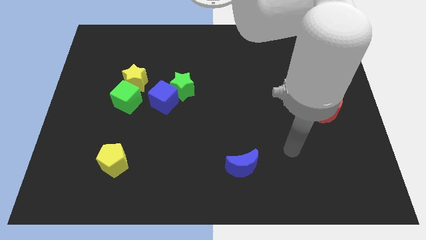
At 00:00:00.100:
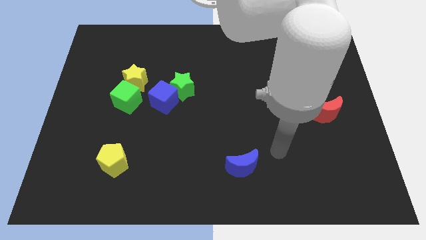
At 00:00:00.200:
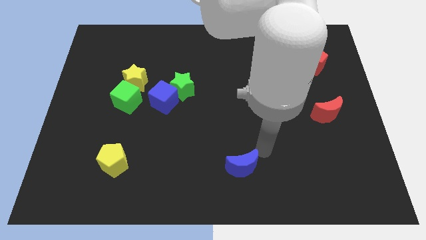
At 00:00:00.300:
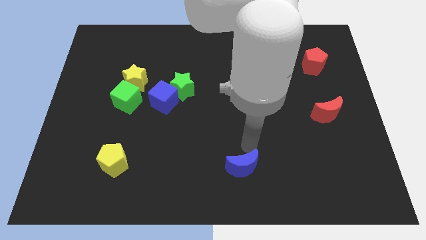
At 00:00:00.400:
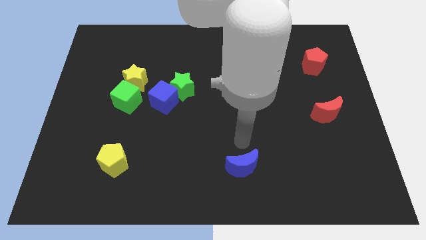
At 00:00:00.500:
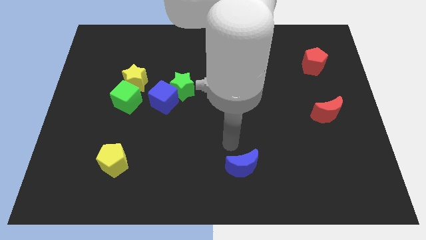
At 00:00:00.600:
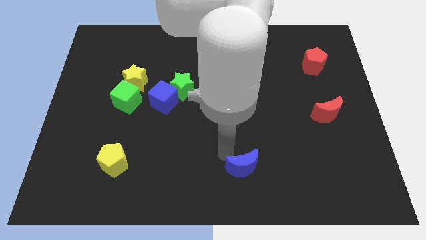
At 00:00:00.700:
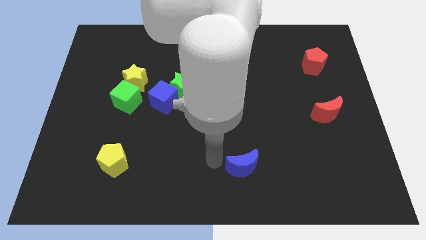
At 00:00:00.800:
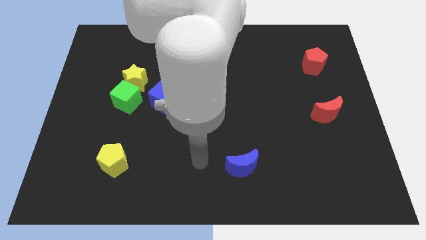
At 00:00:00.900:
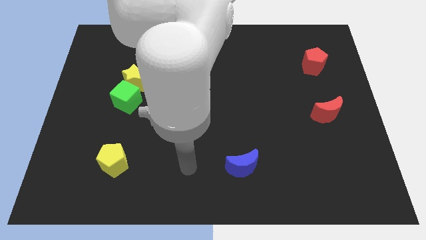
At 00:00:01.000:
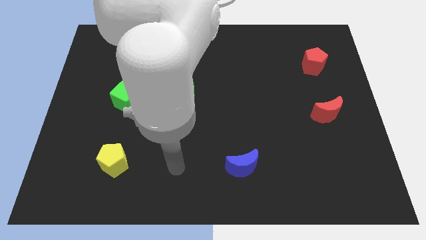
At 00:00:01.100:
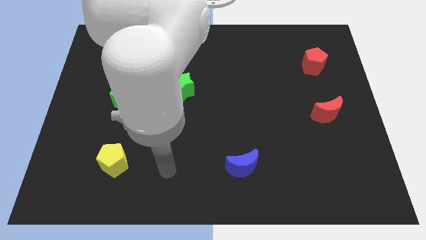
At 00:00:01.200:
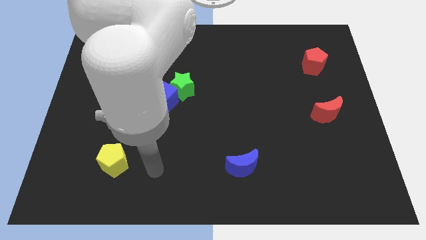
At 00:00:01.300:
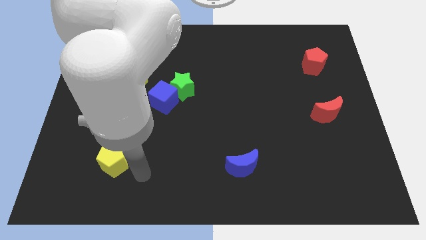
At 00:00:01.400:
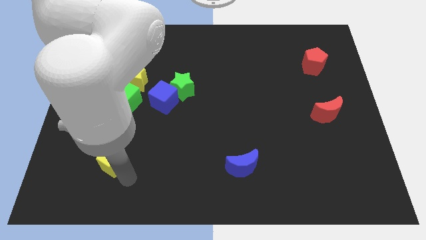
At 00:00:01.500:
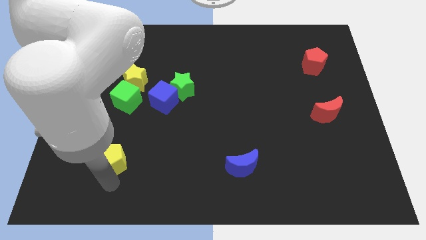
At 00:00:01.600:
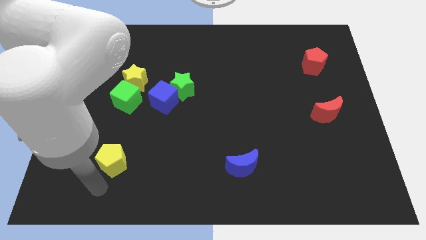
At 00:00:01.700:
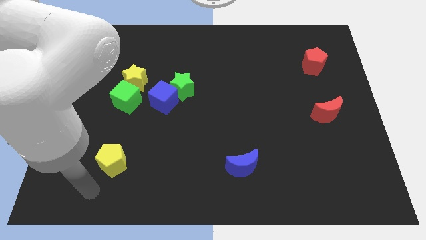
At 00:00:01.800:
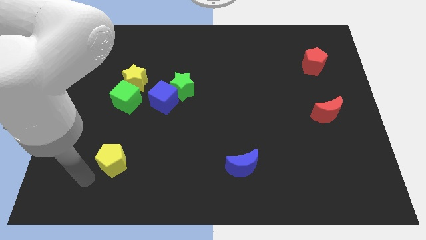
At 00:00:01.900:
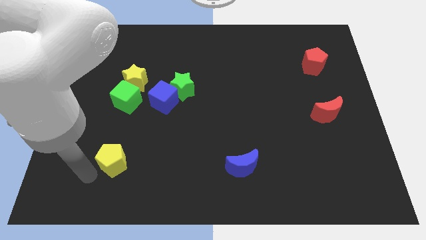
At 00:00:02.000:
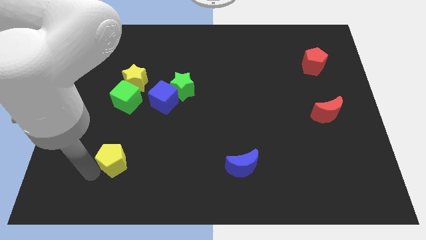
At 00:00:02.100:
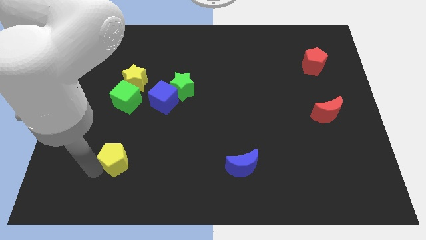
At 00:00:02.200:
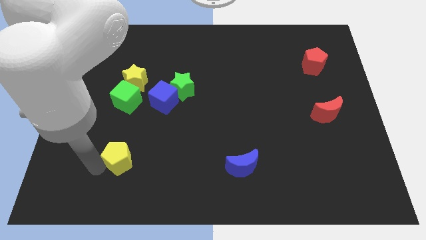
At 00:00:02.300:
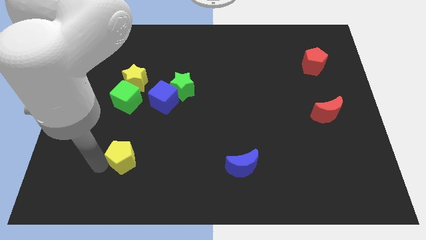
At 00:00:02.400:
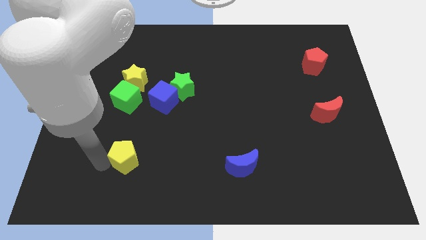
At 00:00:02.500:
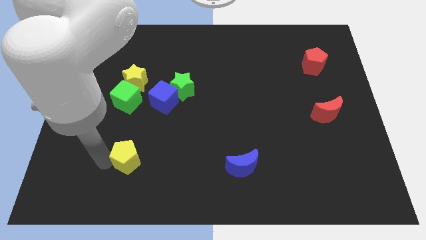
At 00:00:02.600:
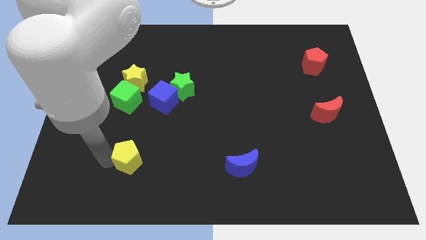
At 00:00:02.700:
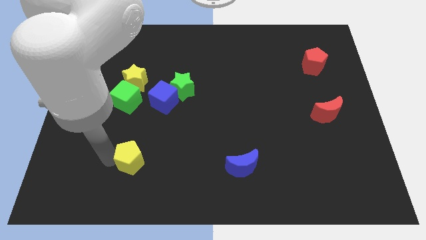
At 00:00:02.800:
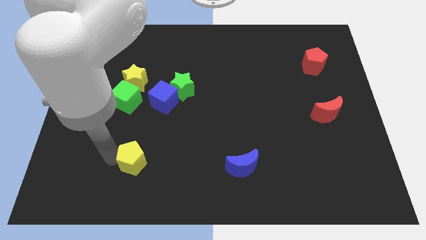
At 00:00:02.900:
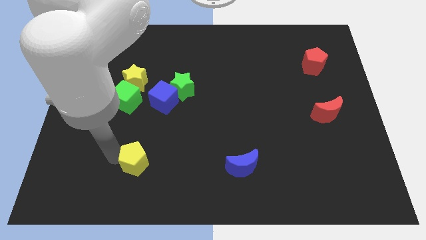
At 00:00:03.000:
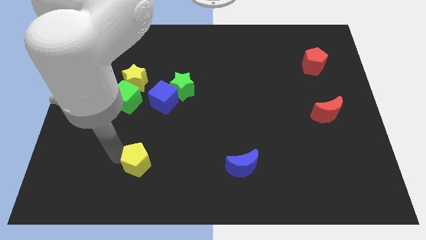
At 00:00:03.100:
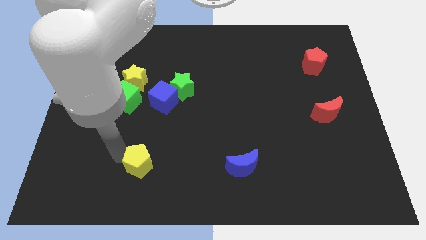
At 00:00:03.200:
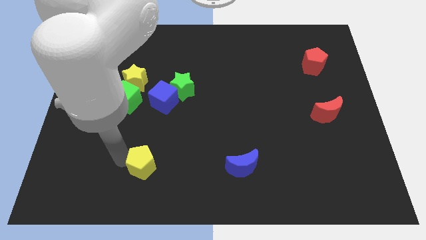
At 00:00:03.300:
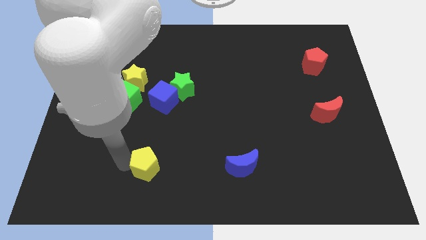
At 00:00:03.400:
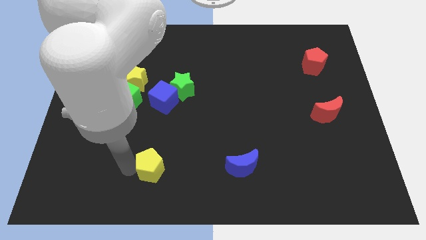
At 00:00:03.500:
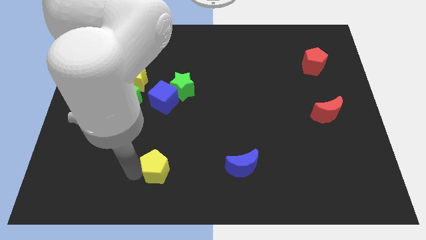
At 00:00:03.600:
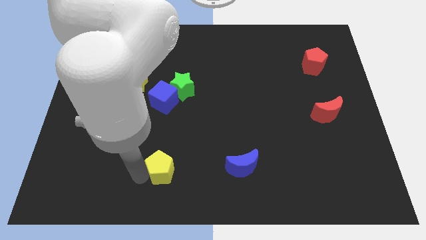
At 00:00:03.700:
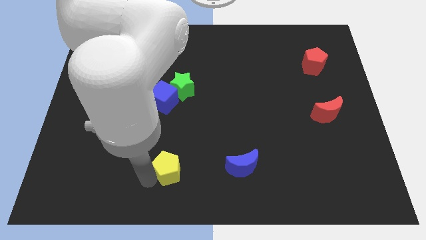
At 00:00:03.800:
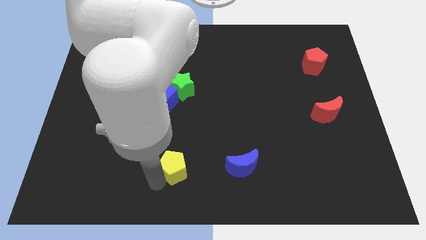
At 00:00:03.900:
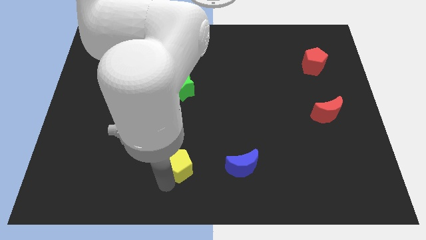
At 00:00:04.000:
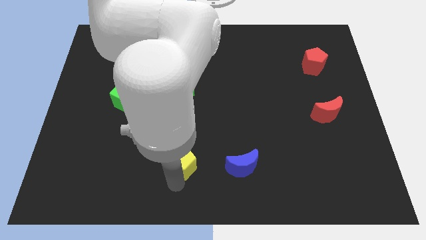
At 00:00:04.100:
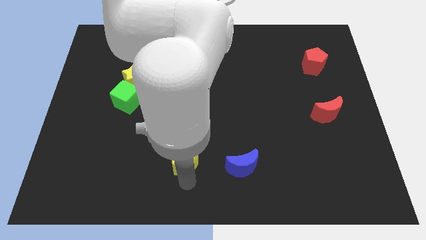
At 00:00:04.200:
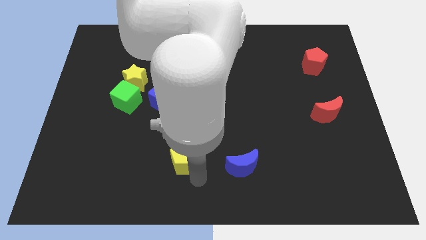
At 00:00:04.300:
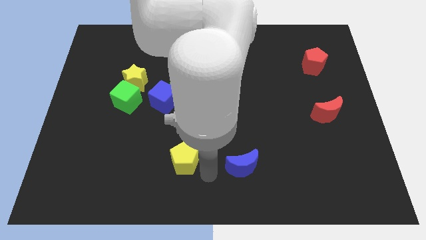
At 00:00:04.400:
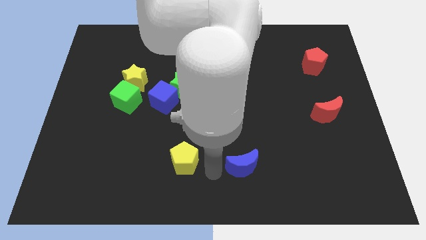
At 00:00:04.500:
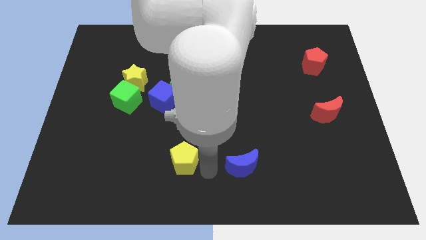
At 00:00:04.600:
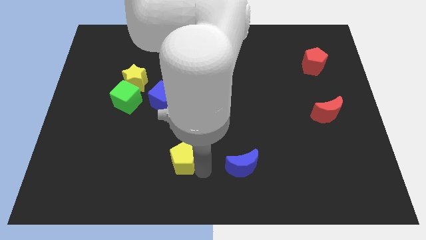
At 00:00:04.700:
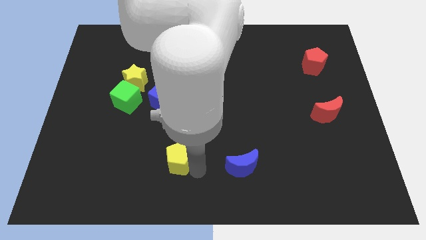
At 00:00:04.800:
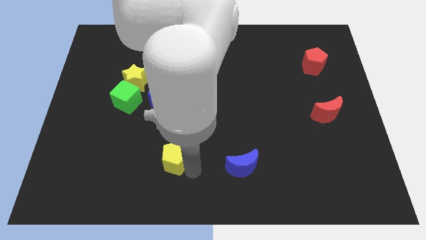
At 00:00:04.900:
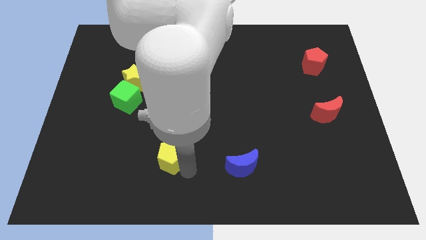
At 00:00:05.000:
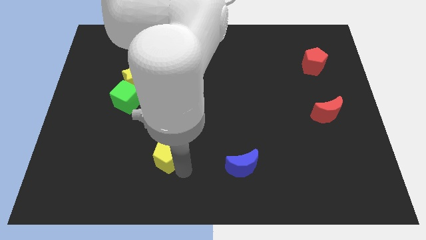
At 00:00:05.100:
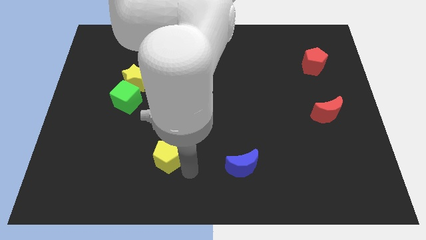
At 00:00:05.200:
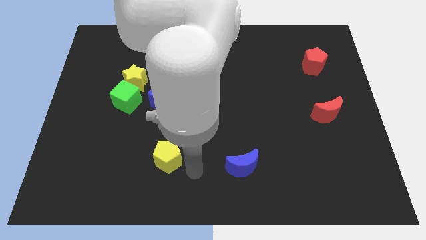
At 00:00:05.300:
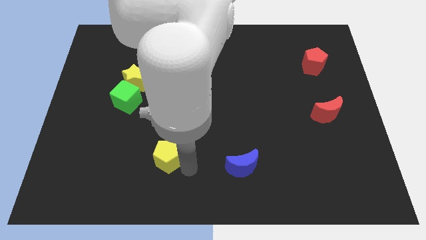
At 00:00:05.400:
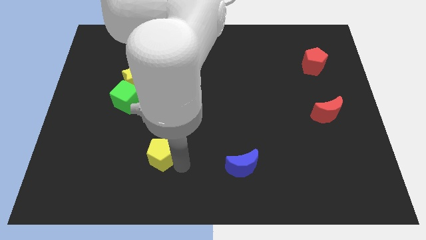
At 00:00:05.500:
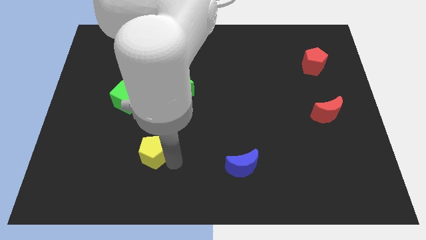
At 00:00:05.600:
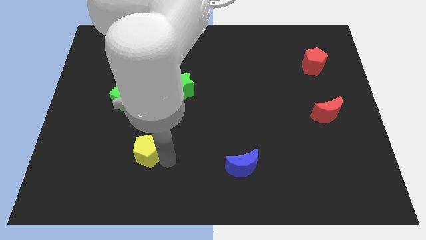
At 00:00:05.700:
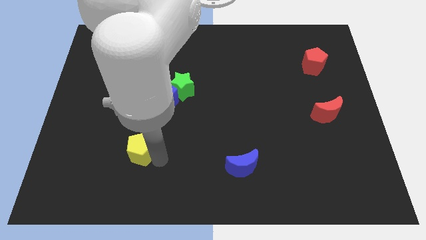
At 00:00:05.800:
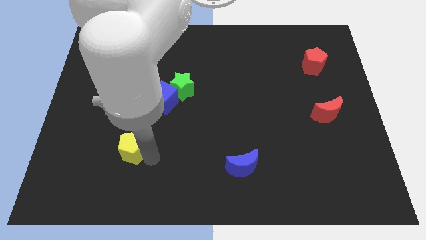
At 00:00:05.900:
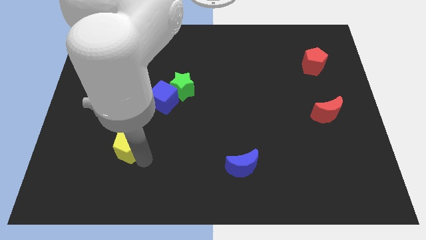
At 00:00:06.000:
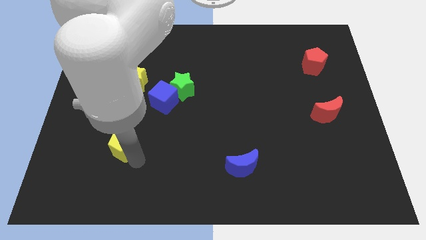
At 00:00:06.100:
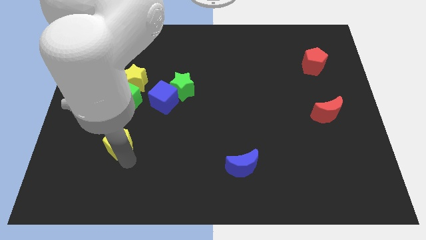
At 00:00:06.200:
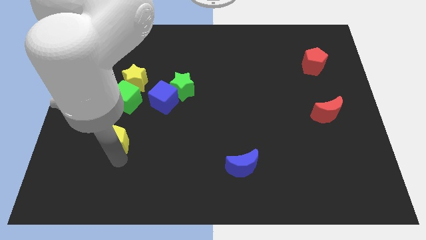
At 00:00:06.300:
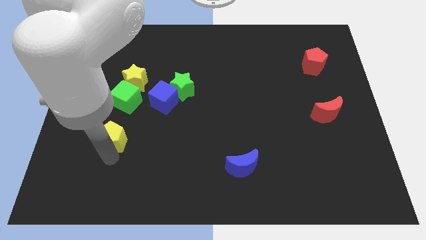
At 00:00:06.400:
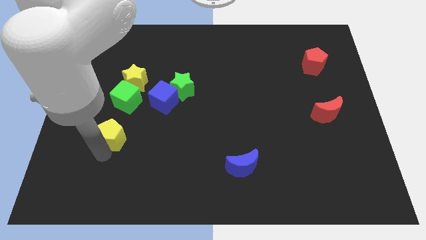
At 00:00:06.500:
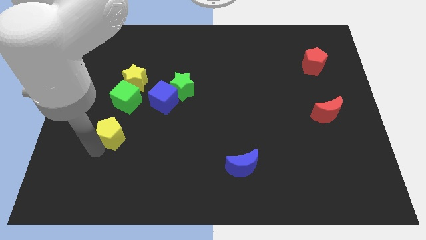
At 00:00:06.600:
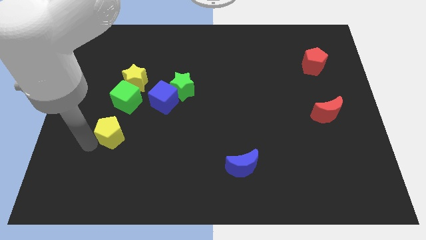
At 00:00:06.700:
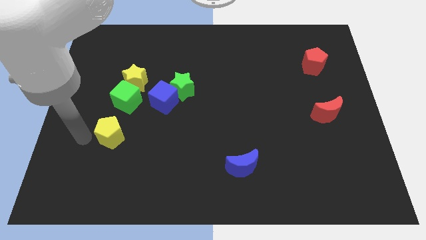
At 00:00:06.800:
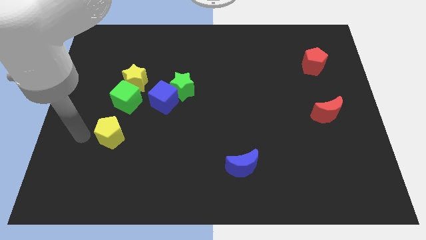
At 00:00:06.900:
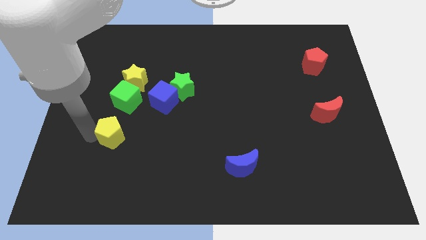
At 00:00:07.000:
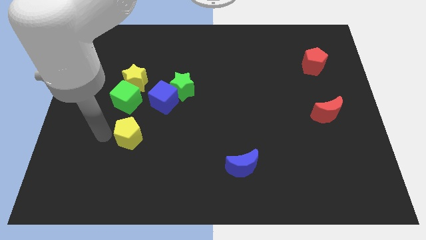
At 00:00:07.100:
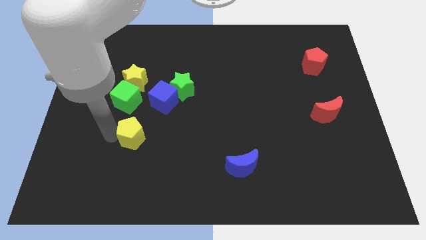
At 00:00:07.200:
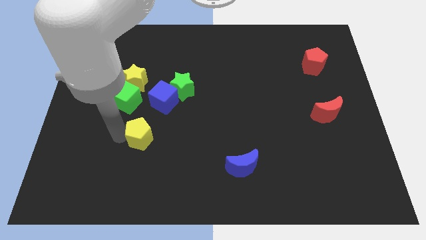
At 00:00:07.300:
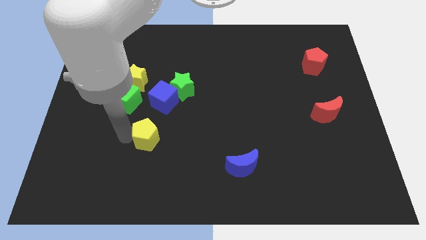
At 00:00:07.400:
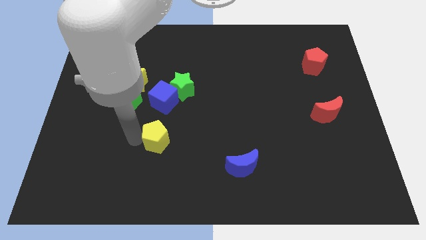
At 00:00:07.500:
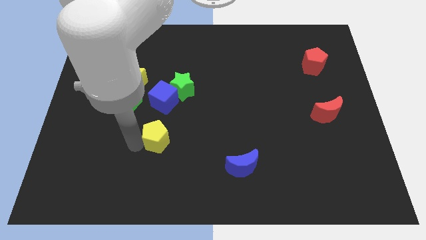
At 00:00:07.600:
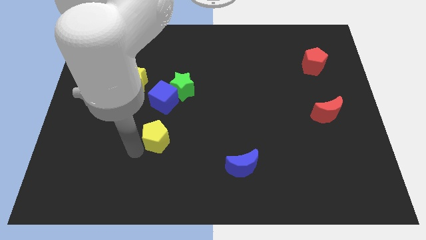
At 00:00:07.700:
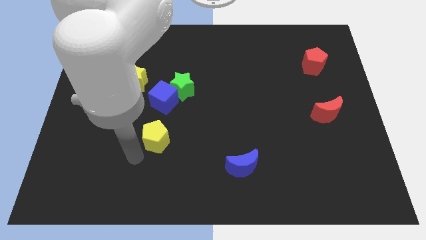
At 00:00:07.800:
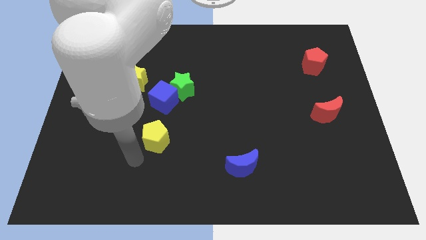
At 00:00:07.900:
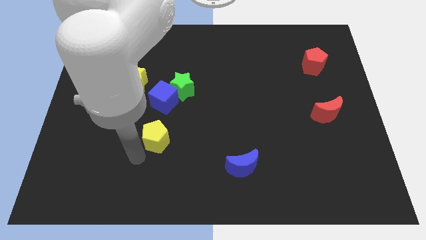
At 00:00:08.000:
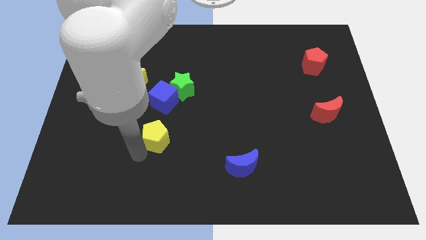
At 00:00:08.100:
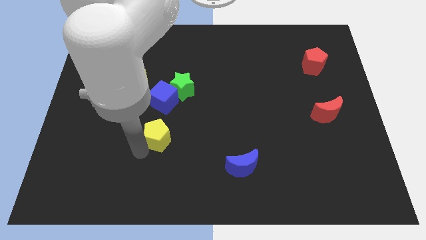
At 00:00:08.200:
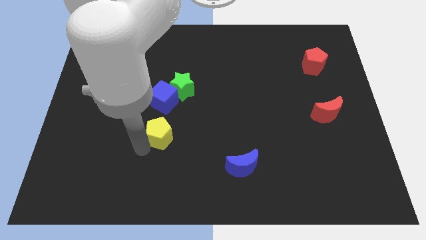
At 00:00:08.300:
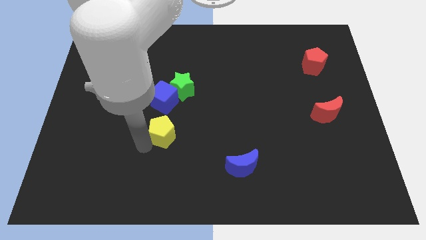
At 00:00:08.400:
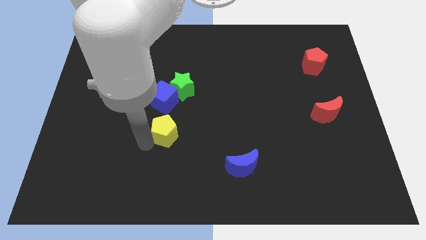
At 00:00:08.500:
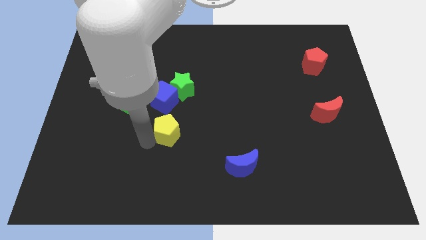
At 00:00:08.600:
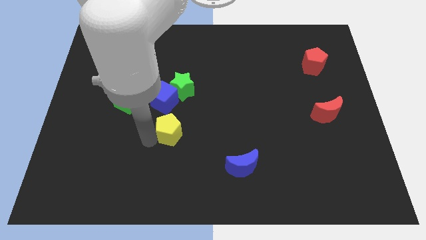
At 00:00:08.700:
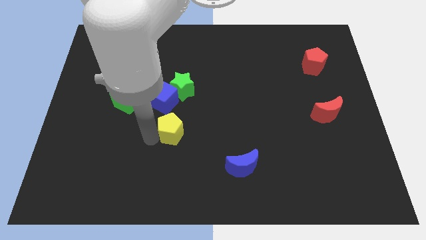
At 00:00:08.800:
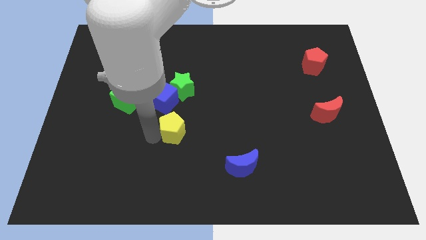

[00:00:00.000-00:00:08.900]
push the yellow pentagon to the center
